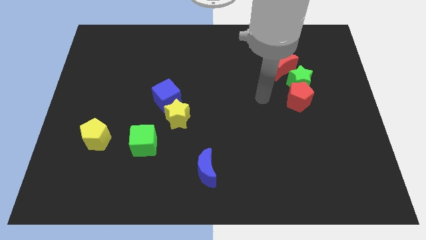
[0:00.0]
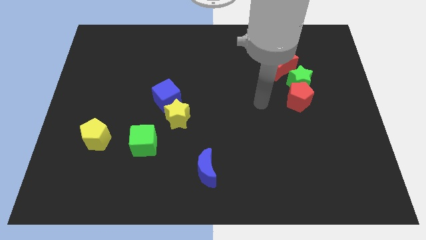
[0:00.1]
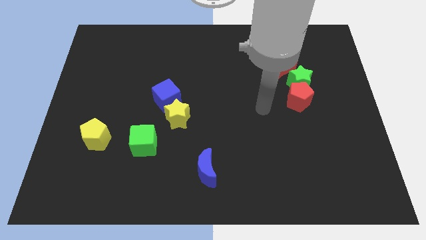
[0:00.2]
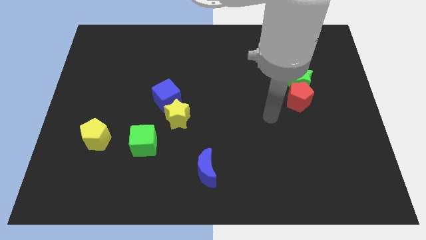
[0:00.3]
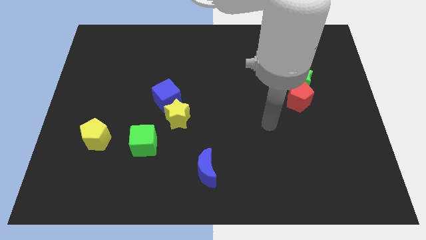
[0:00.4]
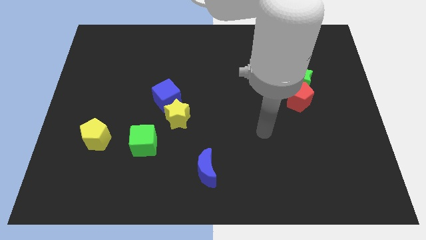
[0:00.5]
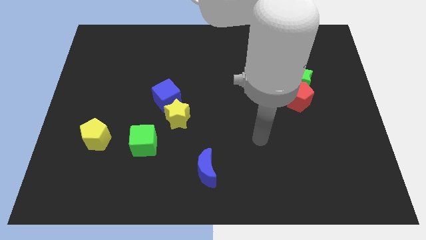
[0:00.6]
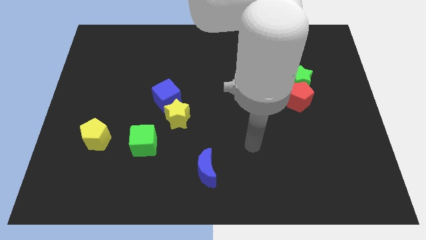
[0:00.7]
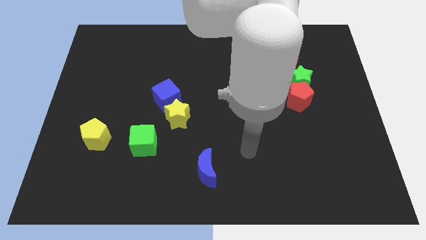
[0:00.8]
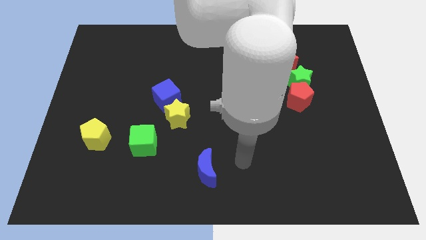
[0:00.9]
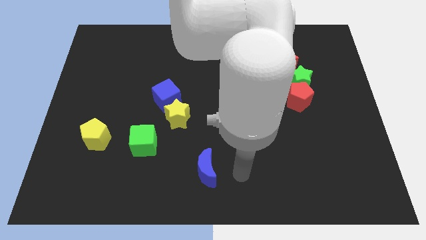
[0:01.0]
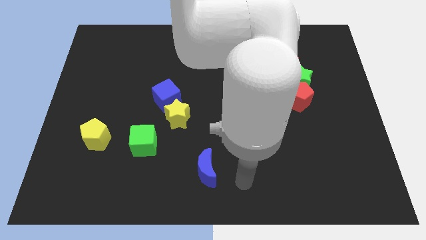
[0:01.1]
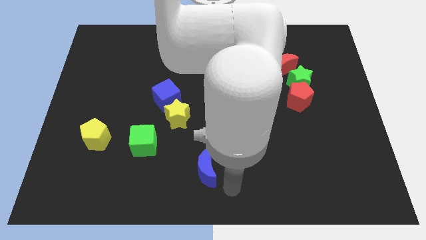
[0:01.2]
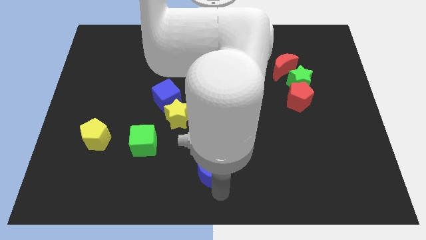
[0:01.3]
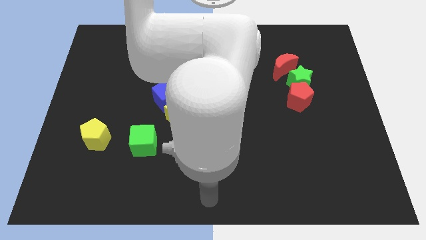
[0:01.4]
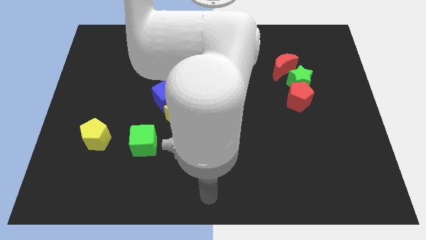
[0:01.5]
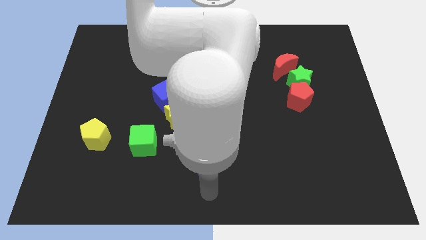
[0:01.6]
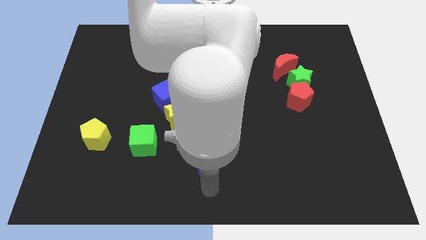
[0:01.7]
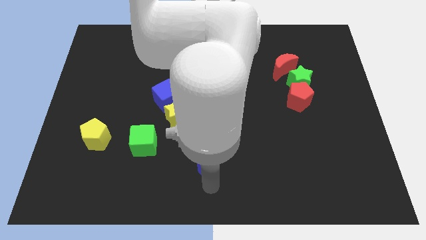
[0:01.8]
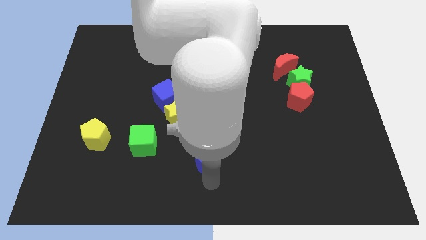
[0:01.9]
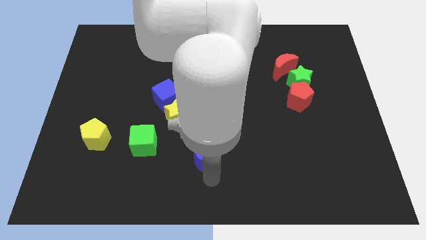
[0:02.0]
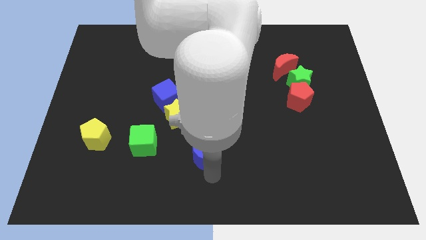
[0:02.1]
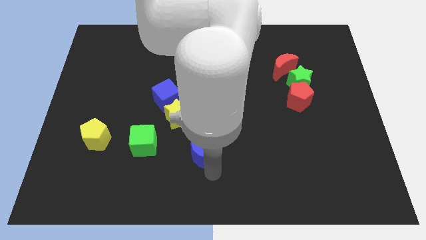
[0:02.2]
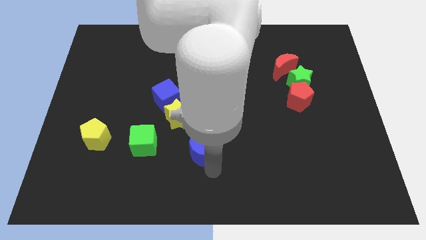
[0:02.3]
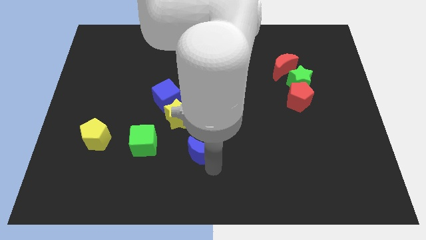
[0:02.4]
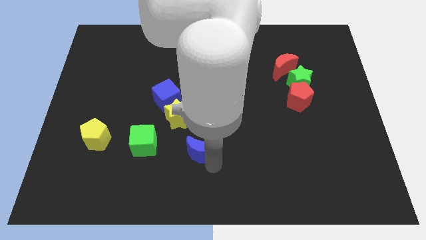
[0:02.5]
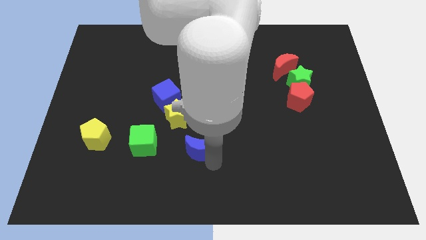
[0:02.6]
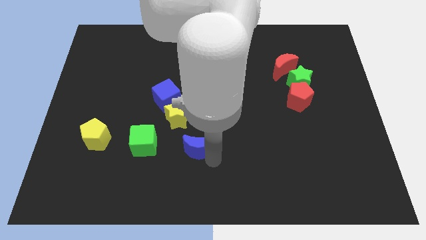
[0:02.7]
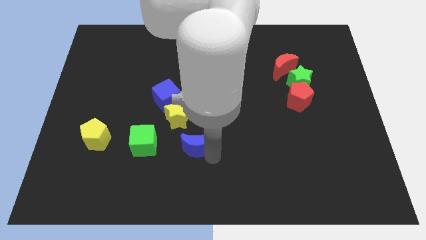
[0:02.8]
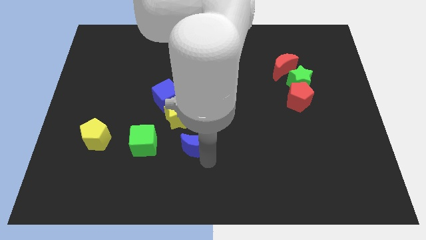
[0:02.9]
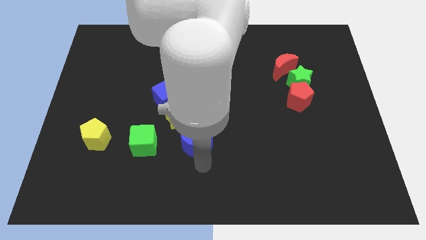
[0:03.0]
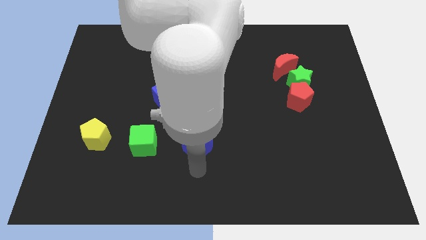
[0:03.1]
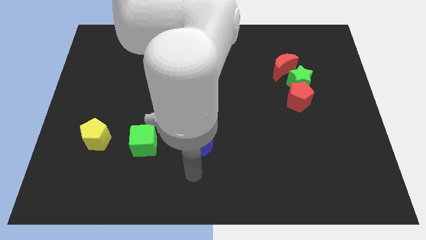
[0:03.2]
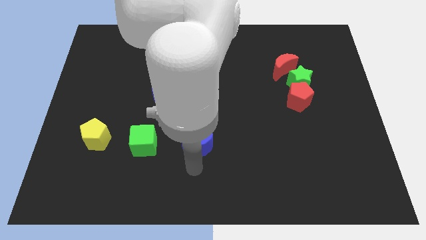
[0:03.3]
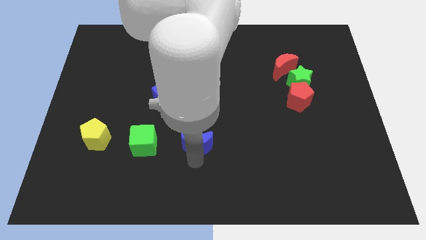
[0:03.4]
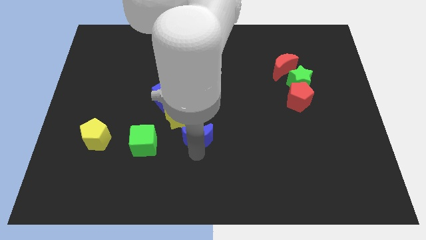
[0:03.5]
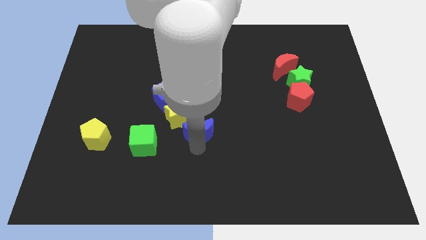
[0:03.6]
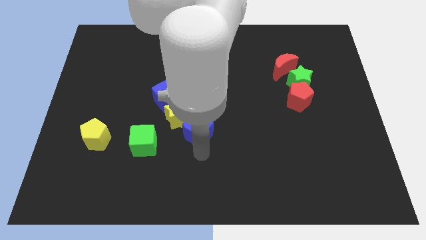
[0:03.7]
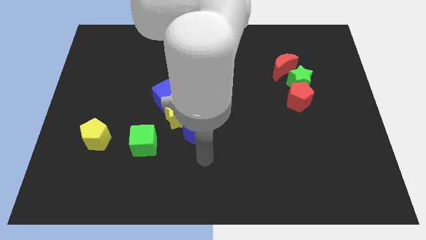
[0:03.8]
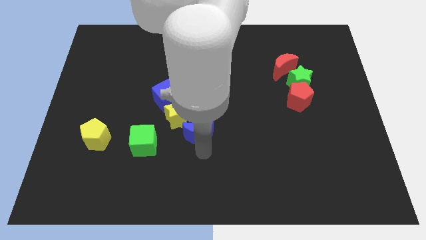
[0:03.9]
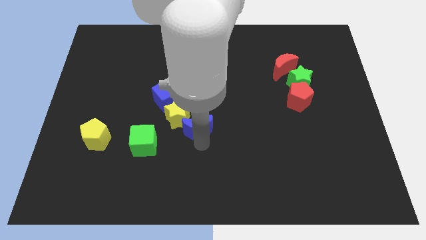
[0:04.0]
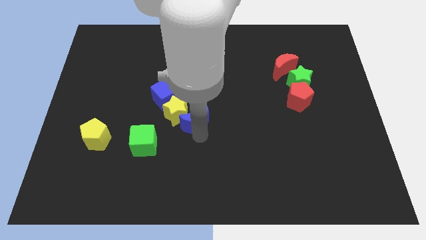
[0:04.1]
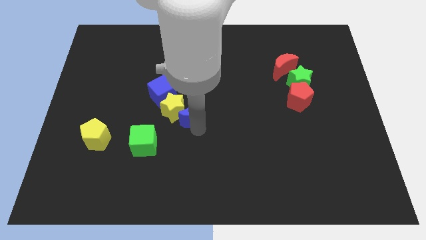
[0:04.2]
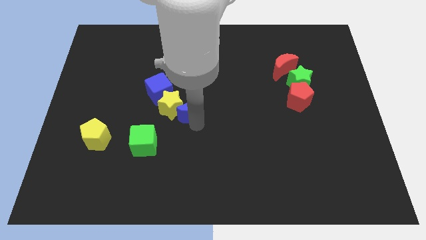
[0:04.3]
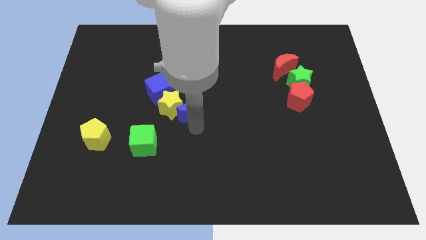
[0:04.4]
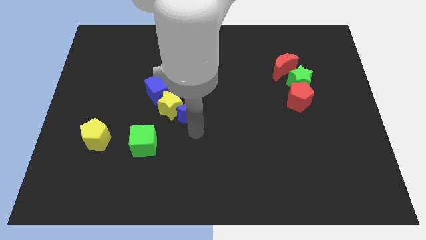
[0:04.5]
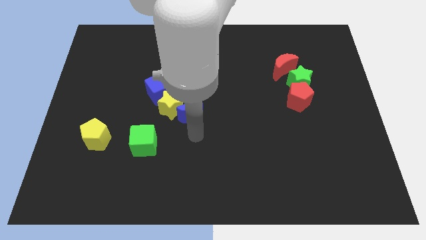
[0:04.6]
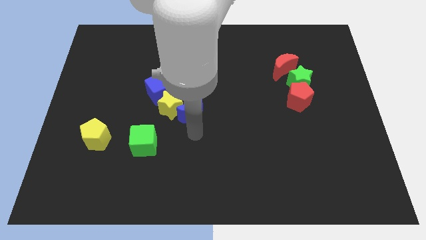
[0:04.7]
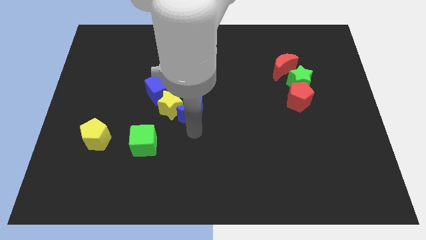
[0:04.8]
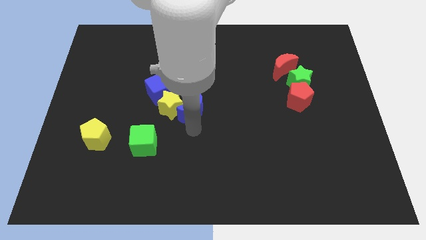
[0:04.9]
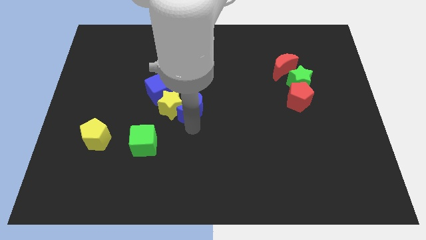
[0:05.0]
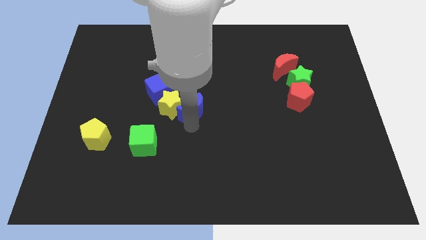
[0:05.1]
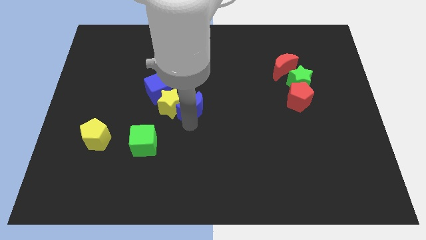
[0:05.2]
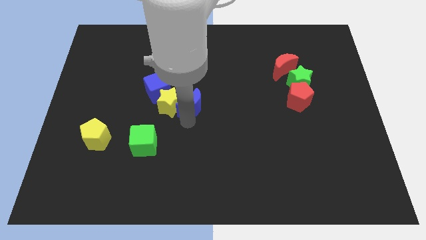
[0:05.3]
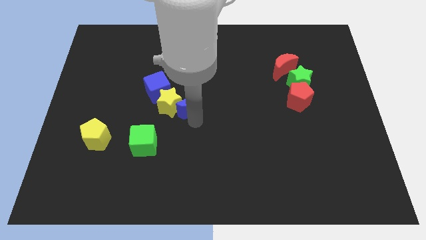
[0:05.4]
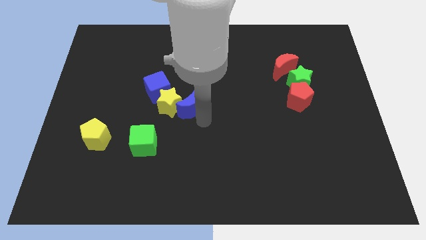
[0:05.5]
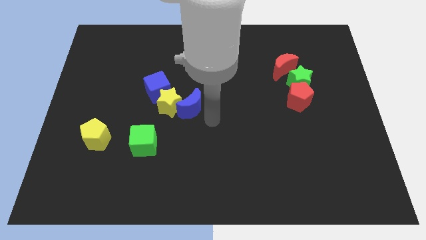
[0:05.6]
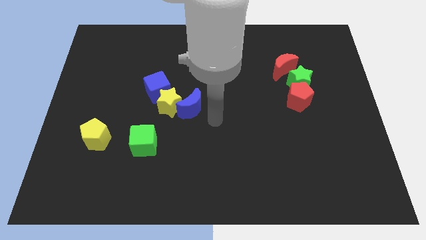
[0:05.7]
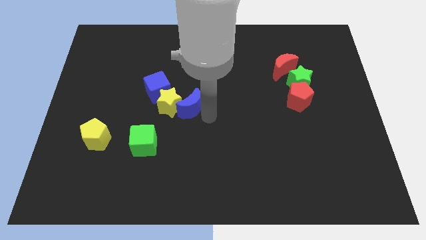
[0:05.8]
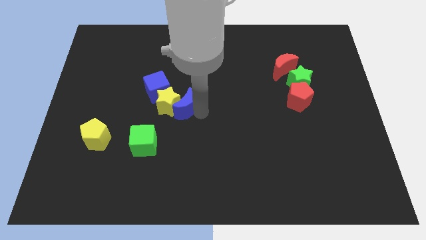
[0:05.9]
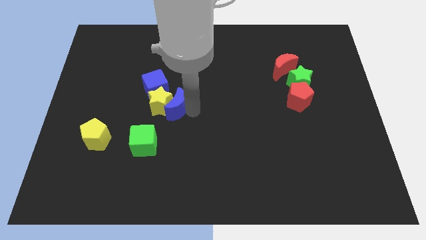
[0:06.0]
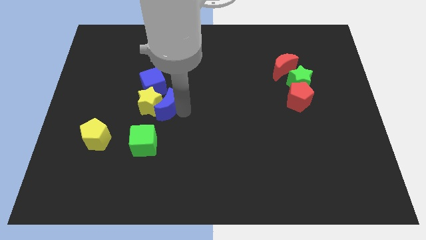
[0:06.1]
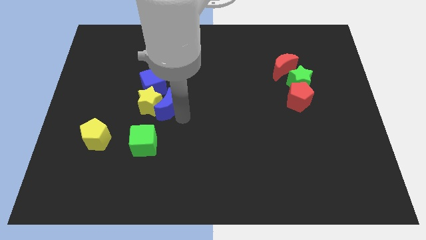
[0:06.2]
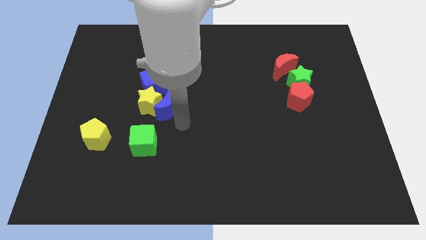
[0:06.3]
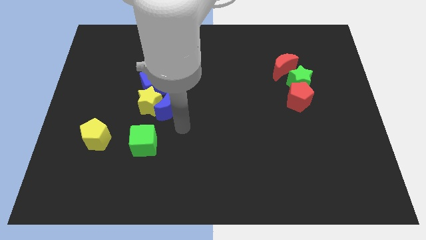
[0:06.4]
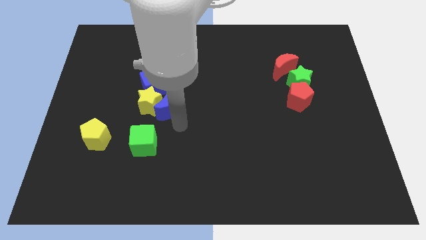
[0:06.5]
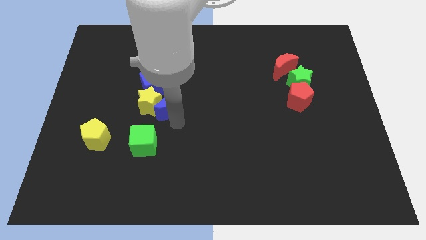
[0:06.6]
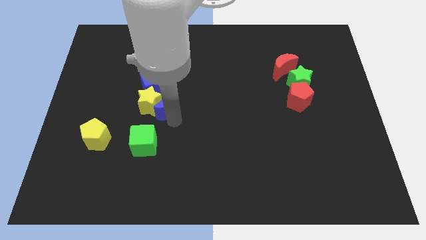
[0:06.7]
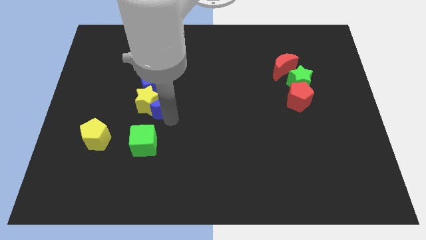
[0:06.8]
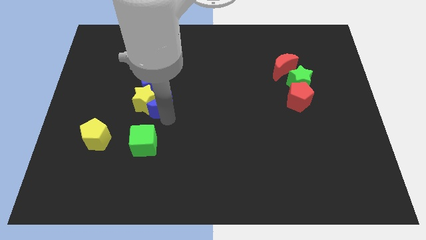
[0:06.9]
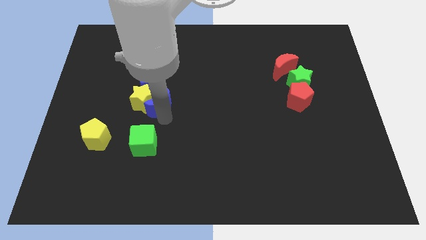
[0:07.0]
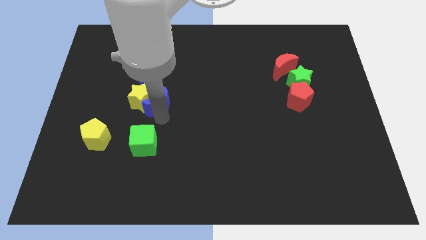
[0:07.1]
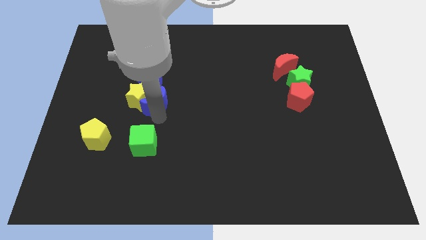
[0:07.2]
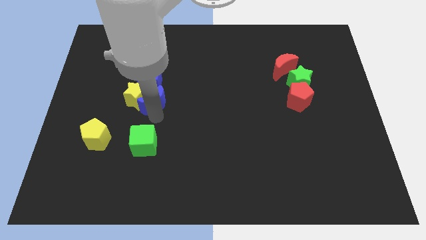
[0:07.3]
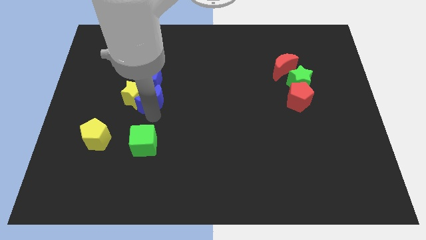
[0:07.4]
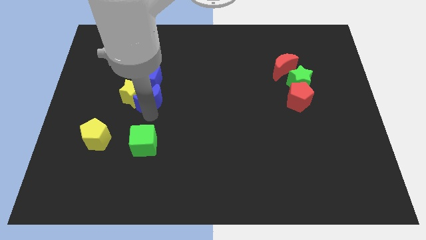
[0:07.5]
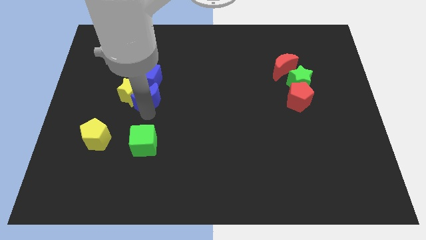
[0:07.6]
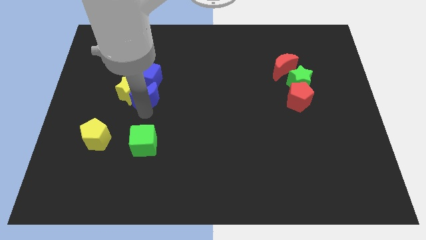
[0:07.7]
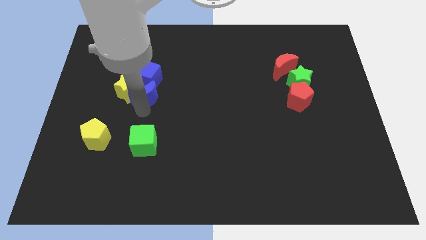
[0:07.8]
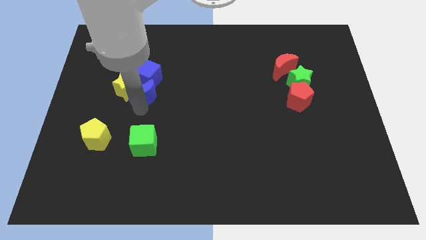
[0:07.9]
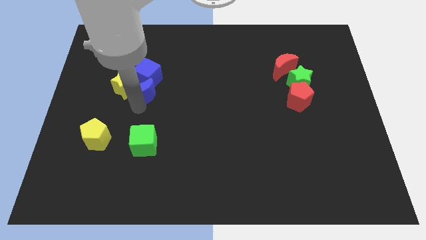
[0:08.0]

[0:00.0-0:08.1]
move the blue moon towards the blue cube
